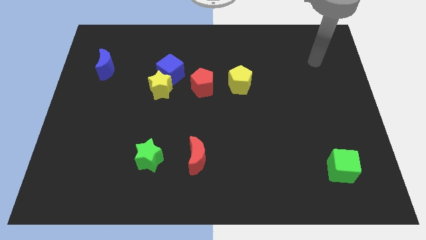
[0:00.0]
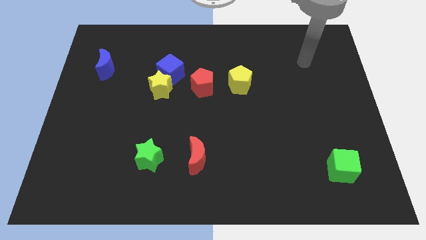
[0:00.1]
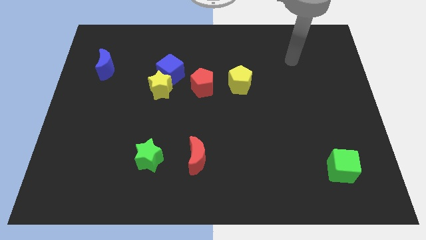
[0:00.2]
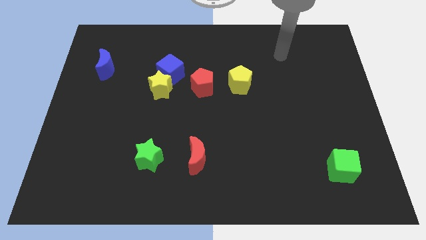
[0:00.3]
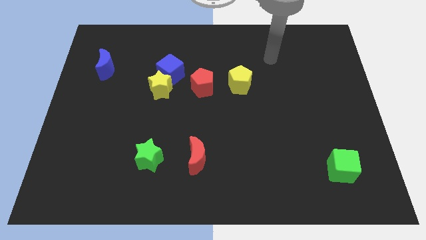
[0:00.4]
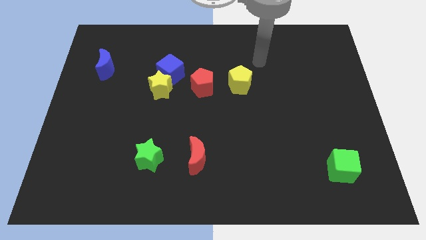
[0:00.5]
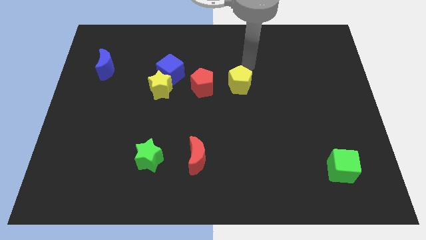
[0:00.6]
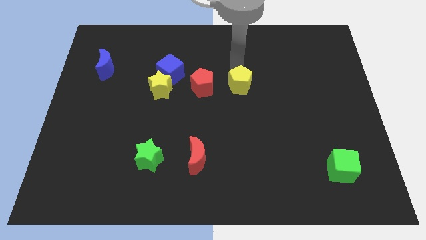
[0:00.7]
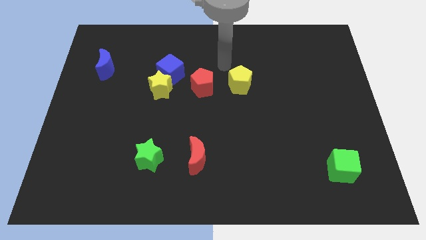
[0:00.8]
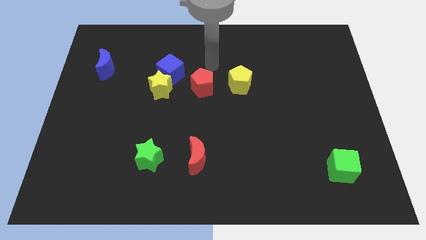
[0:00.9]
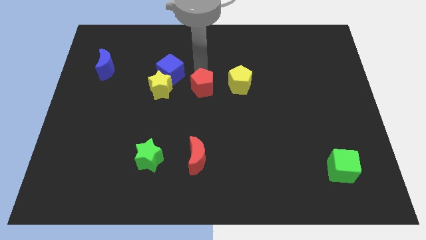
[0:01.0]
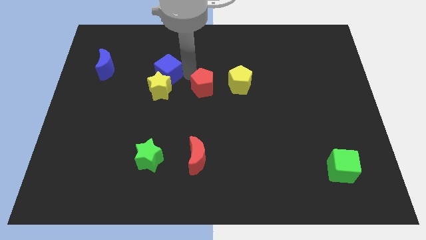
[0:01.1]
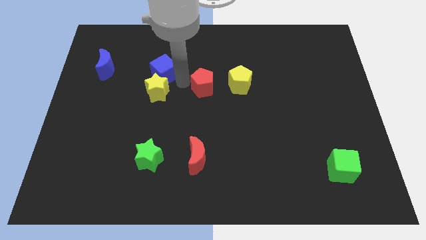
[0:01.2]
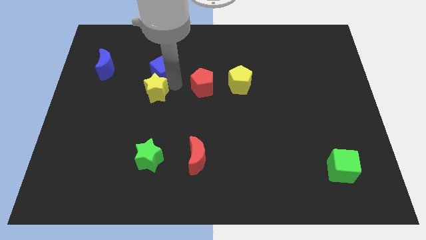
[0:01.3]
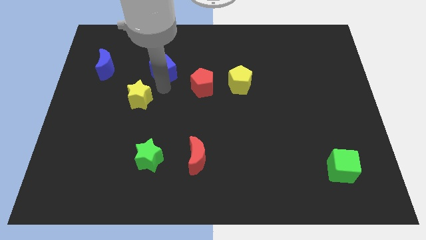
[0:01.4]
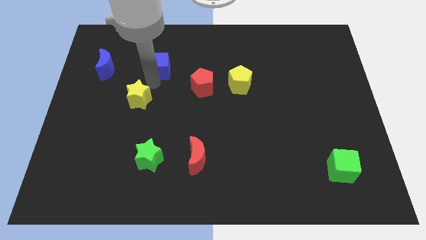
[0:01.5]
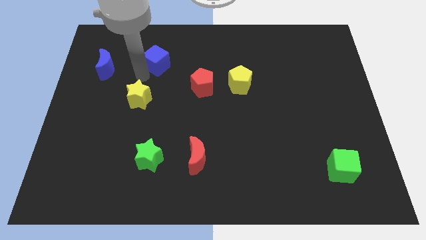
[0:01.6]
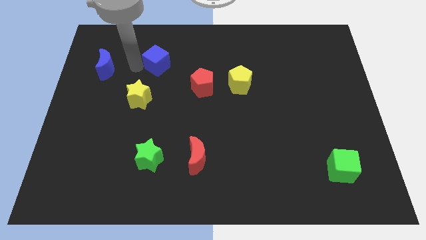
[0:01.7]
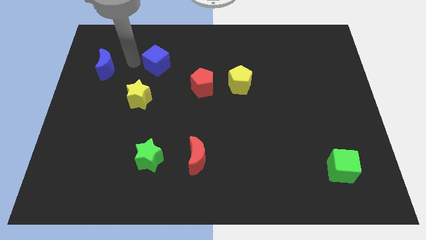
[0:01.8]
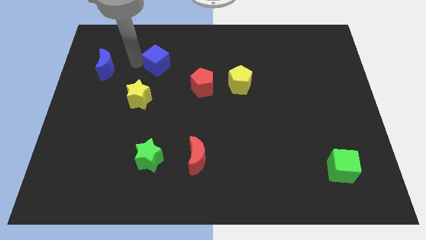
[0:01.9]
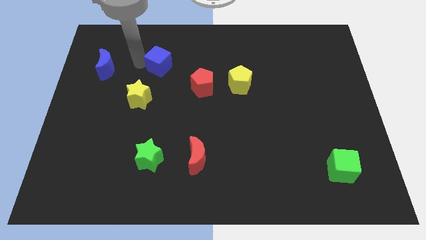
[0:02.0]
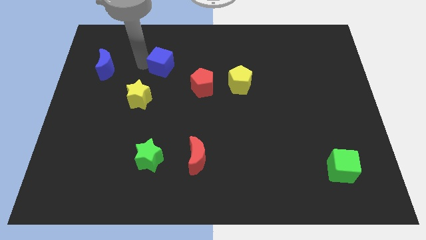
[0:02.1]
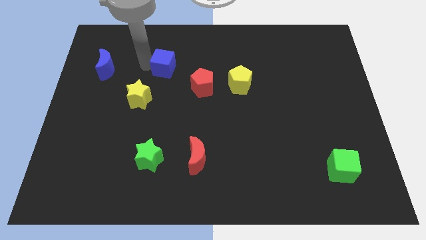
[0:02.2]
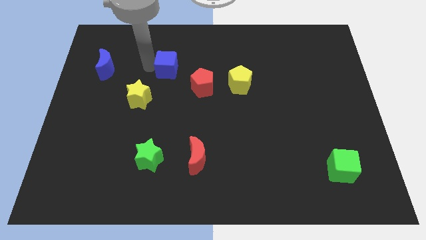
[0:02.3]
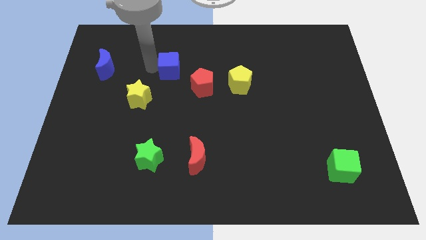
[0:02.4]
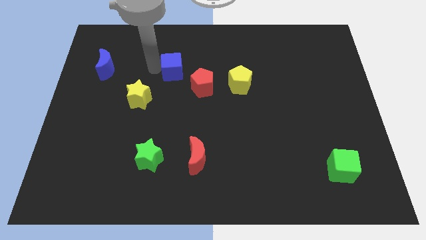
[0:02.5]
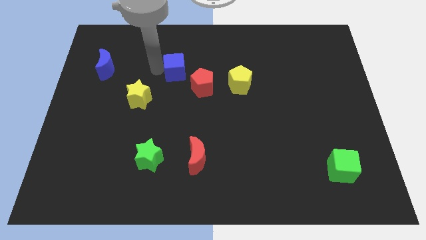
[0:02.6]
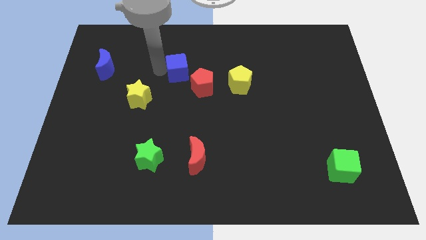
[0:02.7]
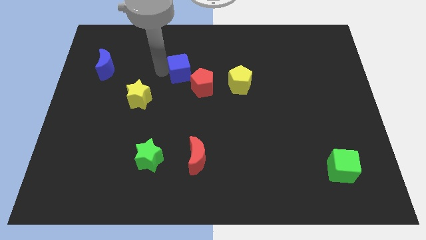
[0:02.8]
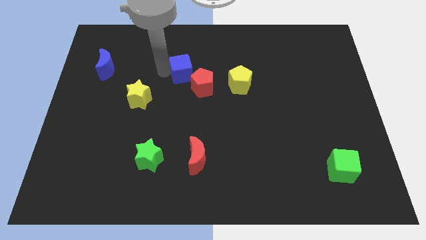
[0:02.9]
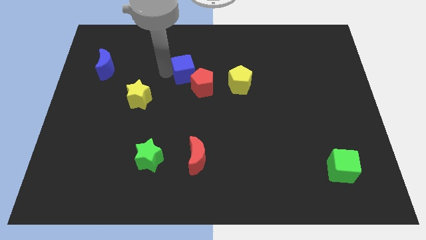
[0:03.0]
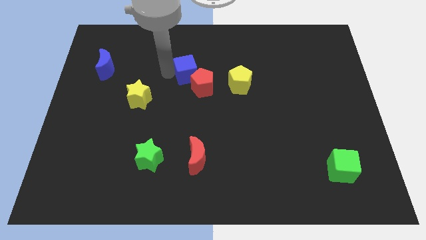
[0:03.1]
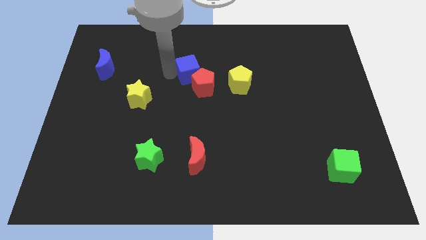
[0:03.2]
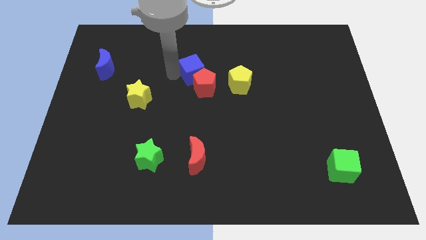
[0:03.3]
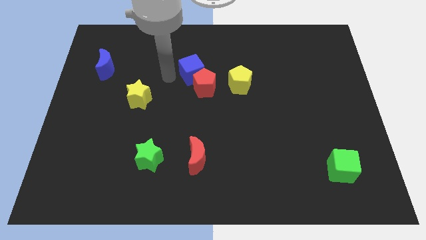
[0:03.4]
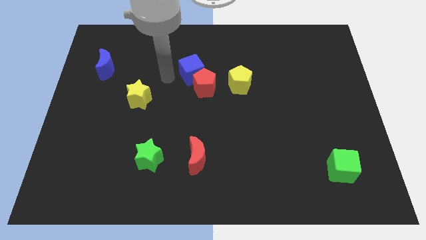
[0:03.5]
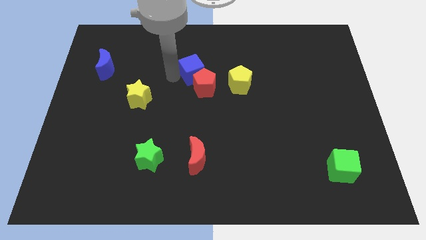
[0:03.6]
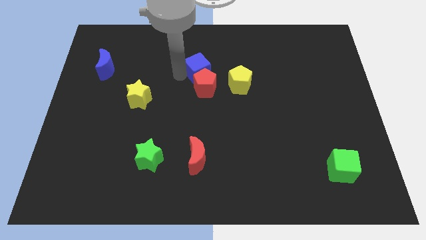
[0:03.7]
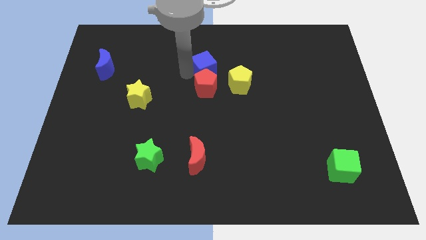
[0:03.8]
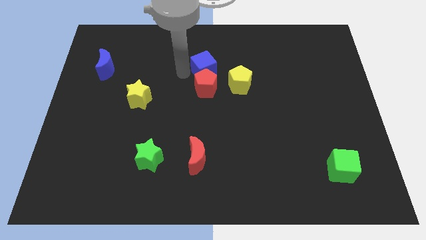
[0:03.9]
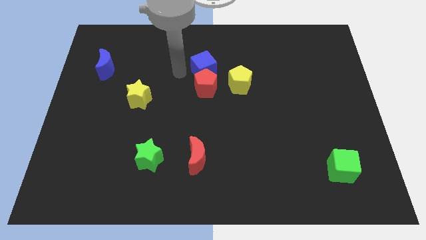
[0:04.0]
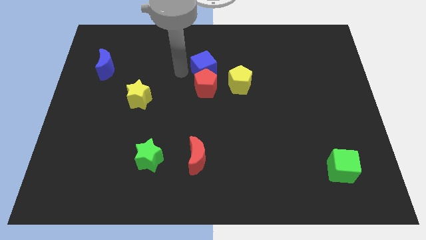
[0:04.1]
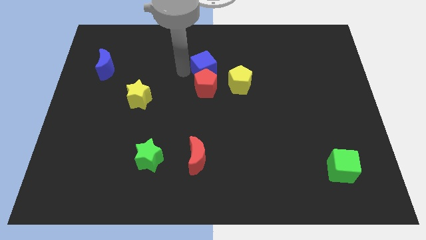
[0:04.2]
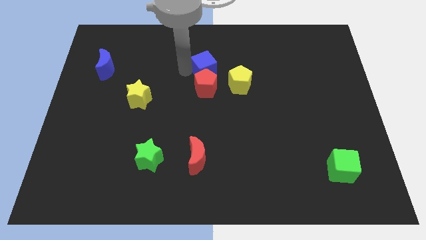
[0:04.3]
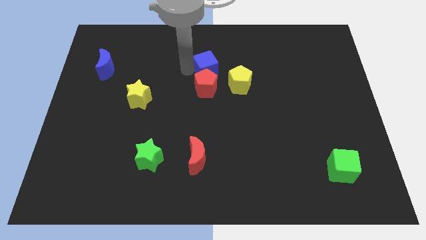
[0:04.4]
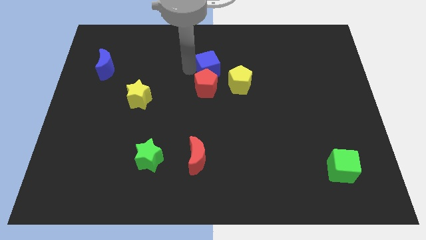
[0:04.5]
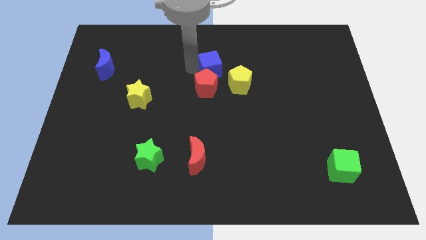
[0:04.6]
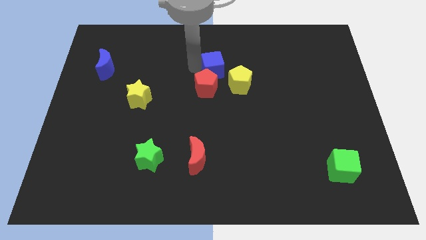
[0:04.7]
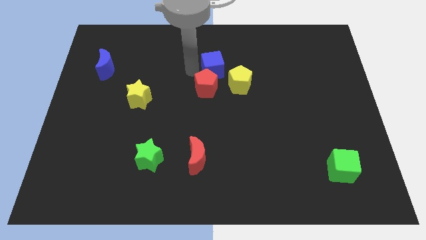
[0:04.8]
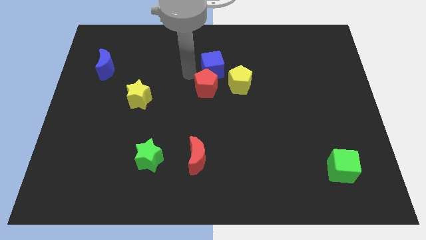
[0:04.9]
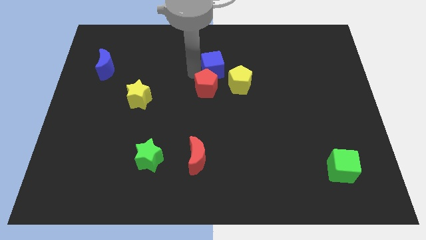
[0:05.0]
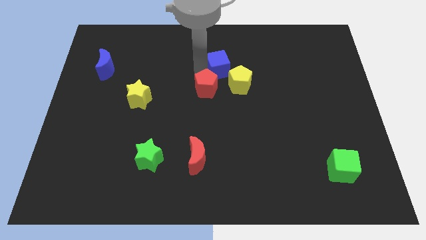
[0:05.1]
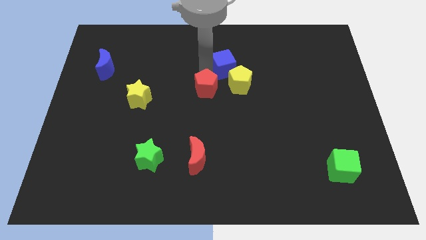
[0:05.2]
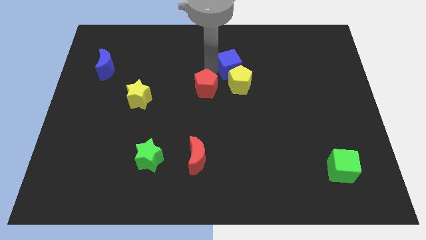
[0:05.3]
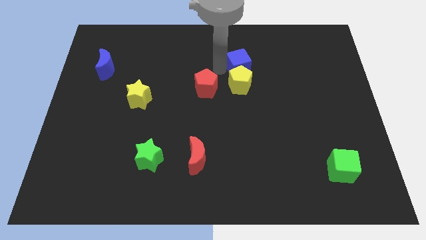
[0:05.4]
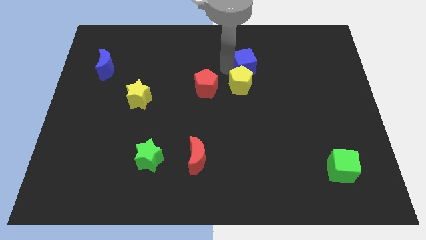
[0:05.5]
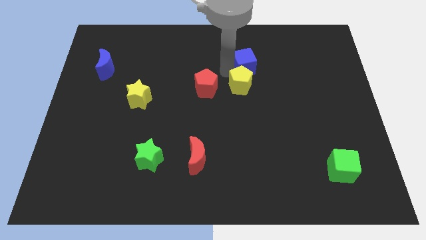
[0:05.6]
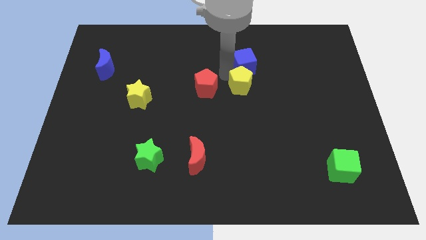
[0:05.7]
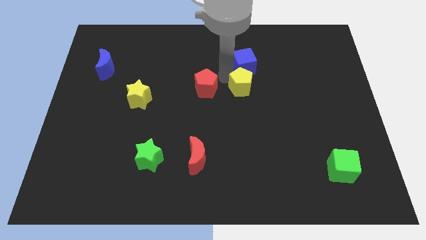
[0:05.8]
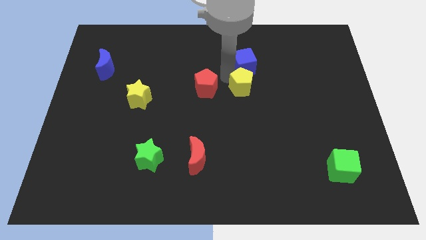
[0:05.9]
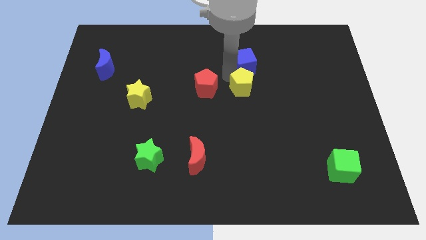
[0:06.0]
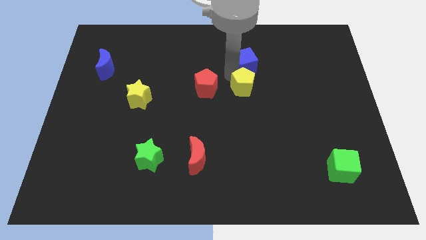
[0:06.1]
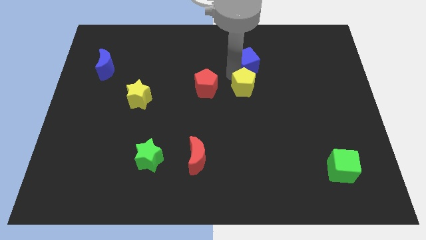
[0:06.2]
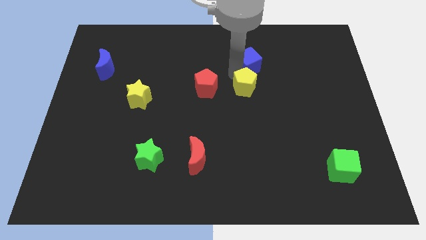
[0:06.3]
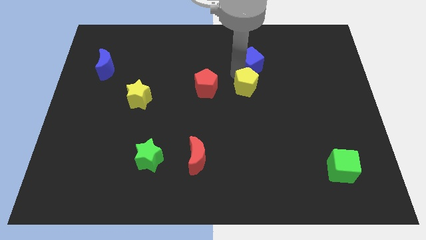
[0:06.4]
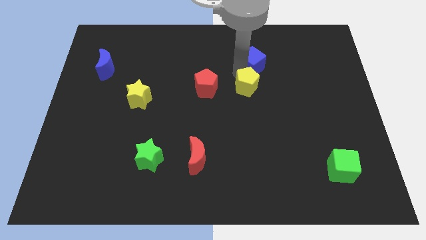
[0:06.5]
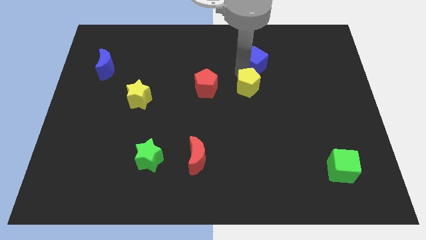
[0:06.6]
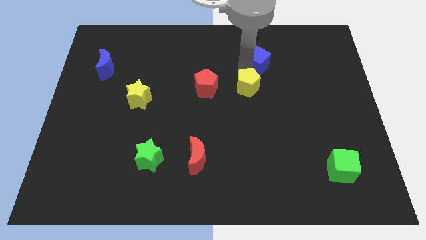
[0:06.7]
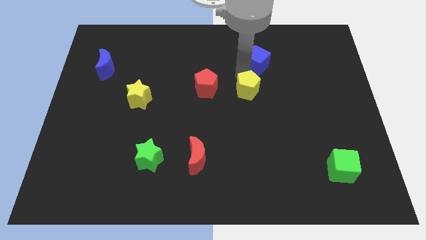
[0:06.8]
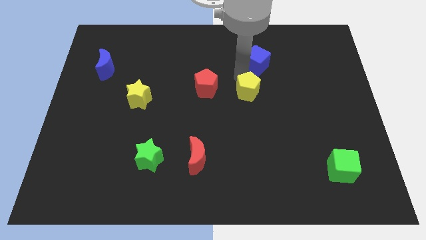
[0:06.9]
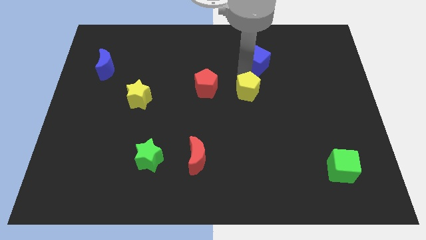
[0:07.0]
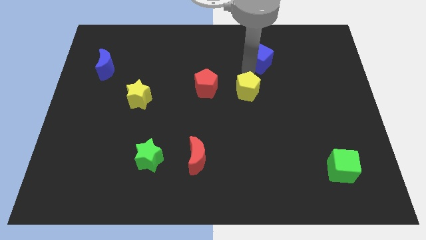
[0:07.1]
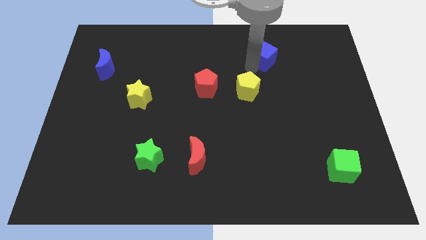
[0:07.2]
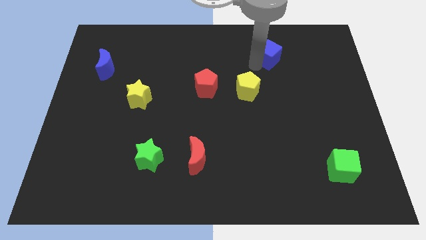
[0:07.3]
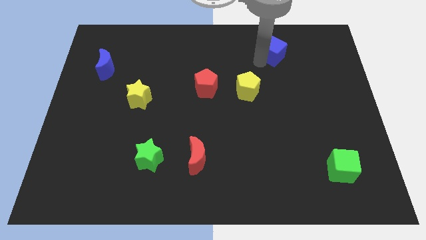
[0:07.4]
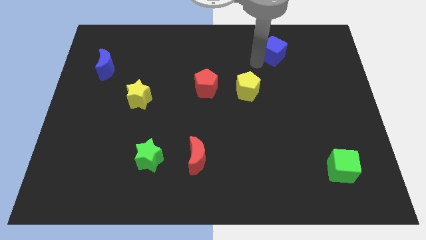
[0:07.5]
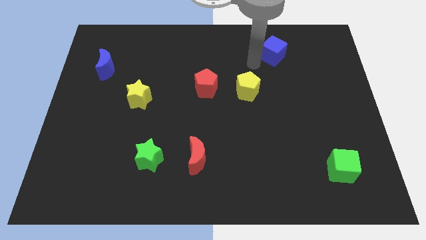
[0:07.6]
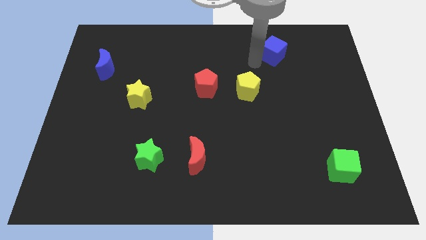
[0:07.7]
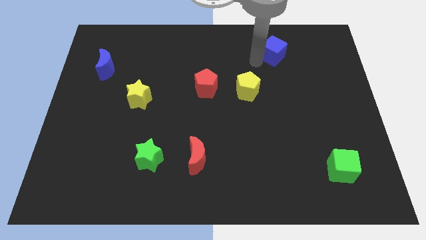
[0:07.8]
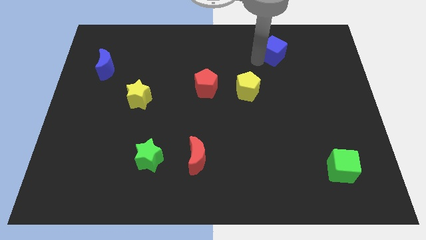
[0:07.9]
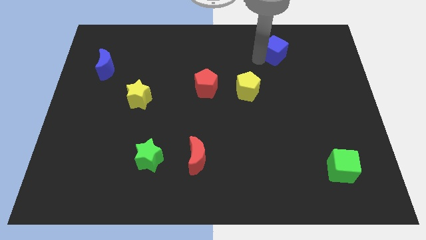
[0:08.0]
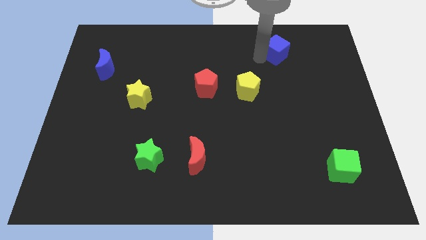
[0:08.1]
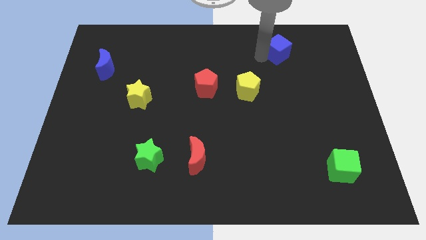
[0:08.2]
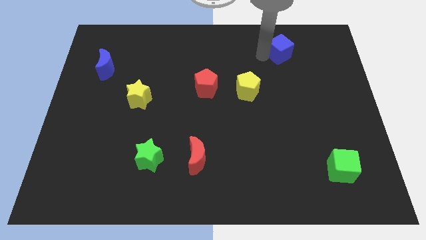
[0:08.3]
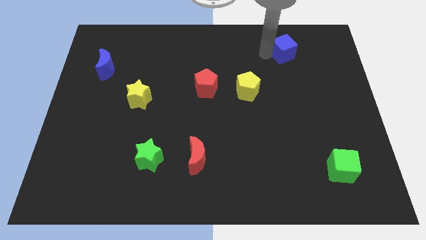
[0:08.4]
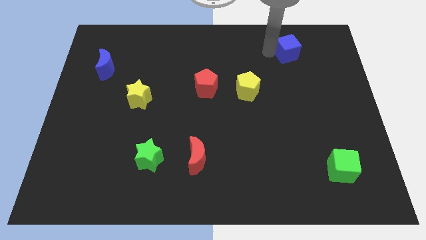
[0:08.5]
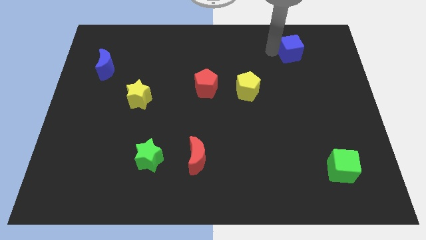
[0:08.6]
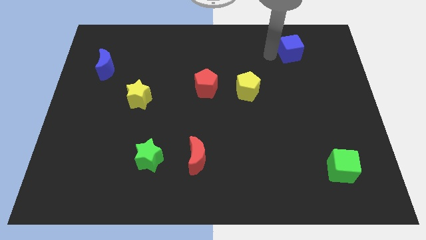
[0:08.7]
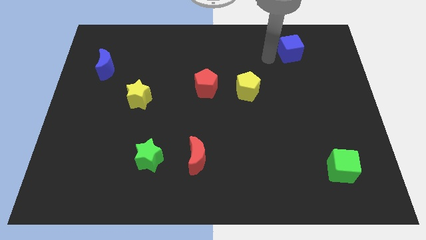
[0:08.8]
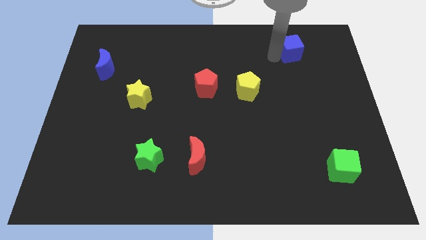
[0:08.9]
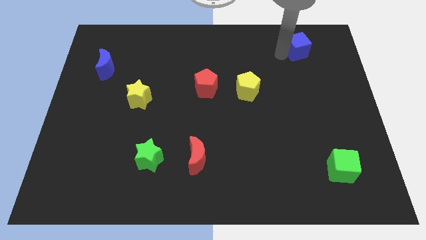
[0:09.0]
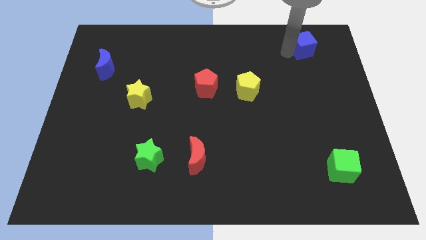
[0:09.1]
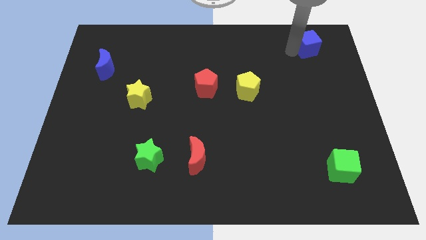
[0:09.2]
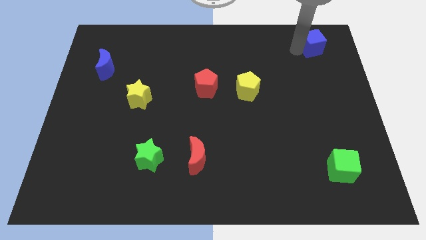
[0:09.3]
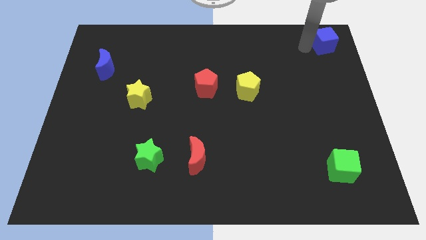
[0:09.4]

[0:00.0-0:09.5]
put the blue cube to the top right
